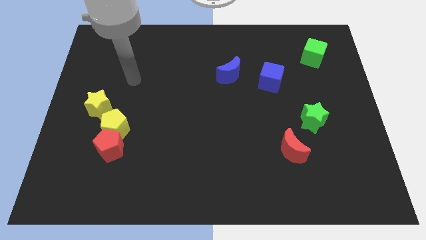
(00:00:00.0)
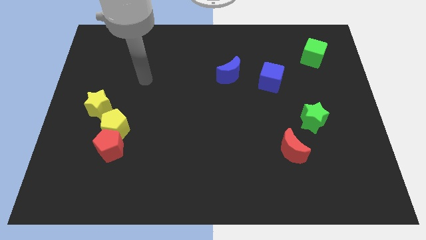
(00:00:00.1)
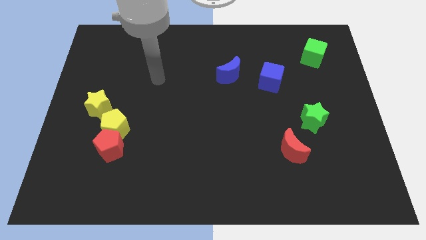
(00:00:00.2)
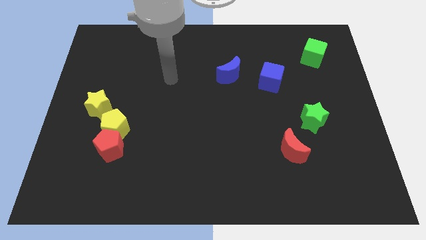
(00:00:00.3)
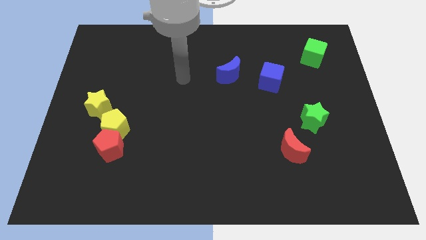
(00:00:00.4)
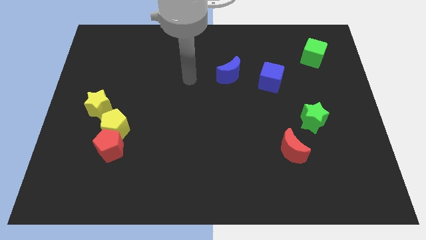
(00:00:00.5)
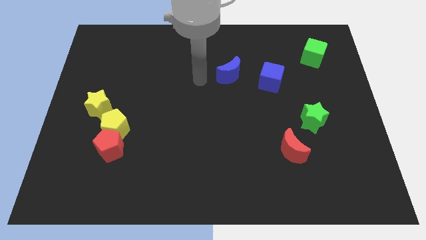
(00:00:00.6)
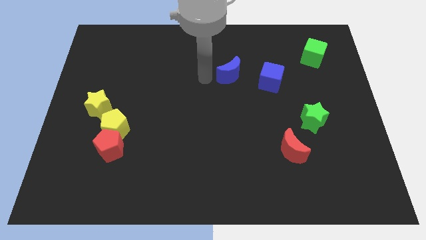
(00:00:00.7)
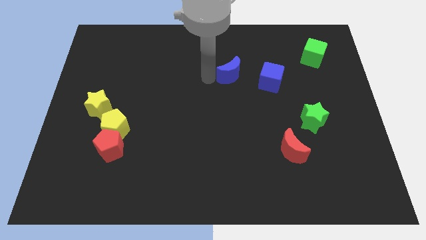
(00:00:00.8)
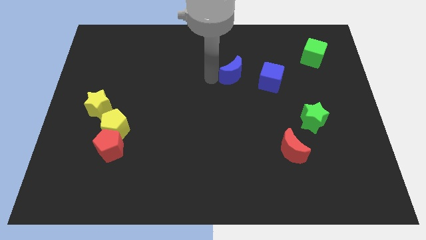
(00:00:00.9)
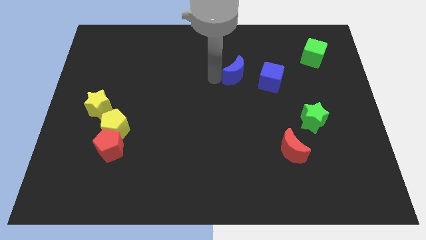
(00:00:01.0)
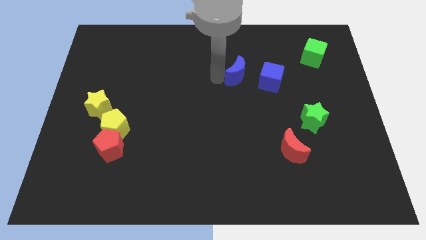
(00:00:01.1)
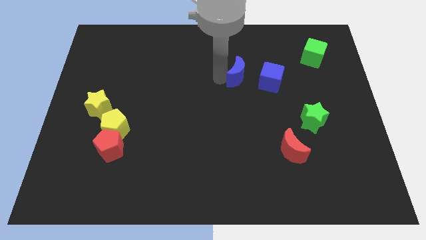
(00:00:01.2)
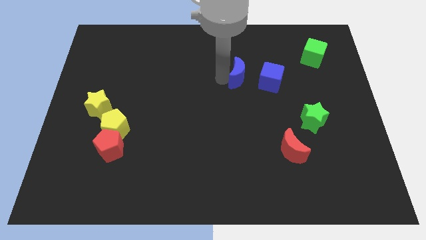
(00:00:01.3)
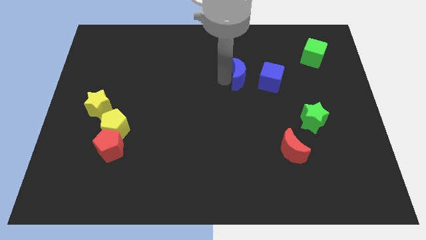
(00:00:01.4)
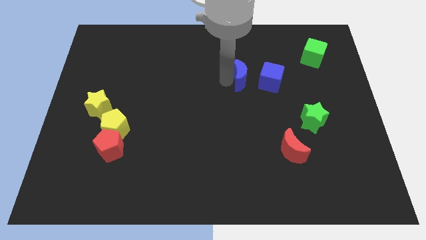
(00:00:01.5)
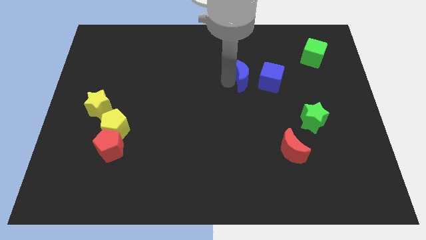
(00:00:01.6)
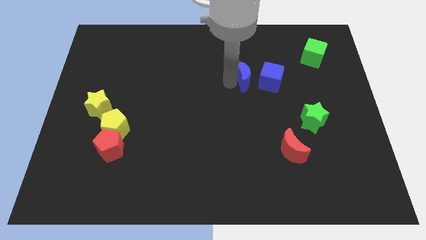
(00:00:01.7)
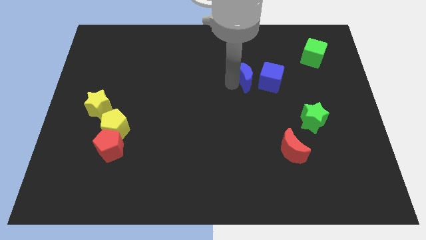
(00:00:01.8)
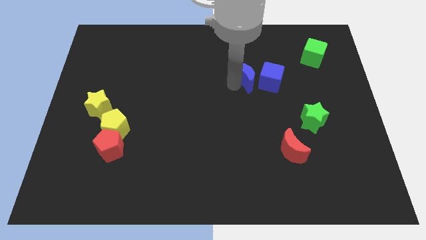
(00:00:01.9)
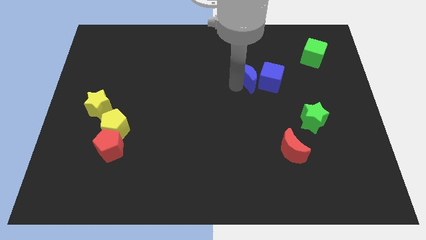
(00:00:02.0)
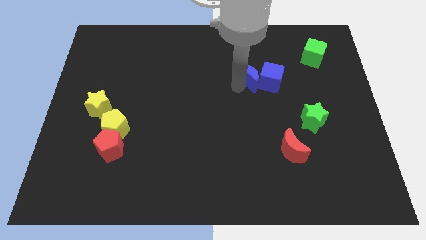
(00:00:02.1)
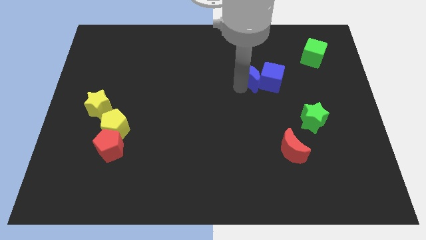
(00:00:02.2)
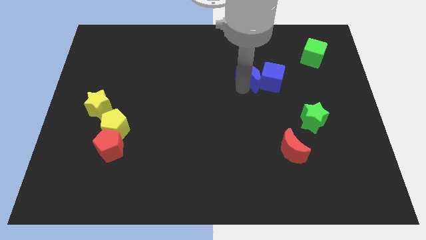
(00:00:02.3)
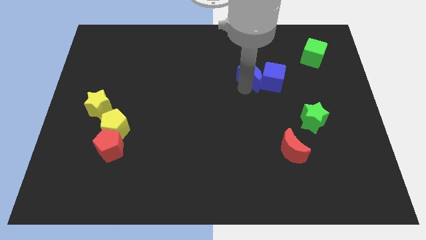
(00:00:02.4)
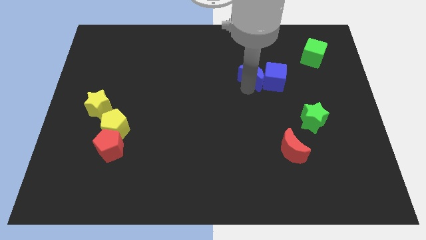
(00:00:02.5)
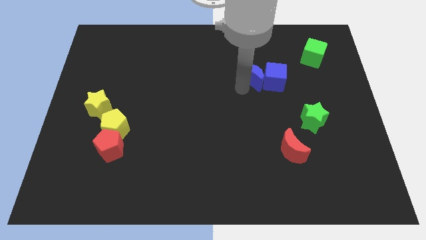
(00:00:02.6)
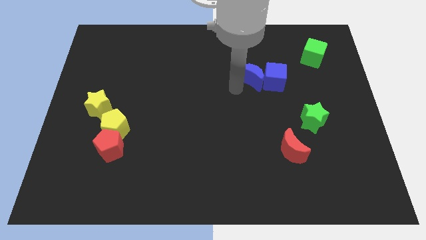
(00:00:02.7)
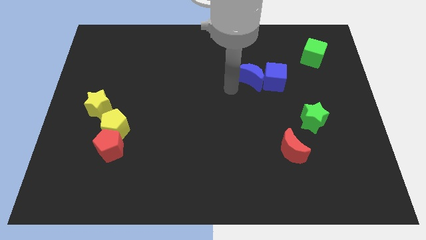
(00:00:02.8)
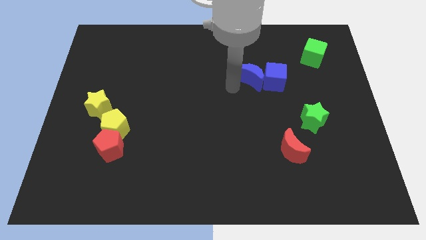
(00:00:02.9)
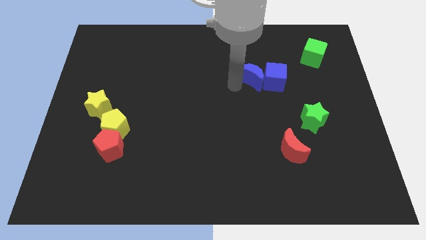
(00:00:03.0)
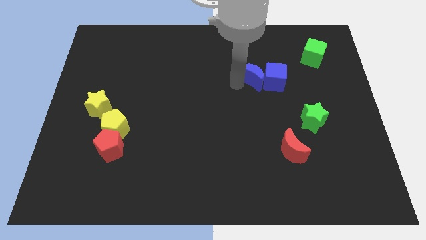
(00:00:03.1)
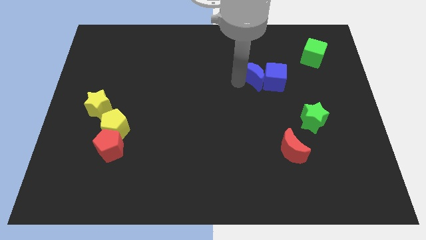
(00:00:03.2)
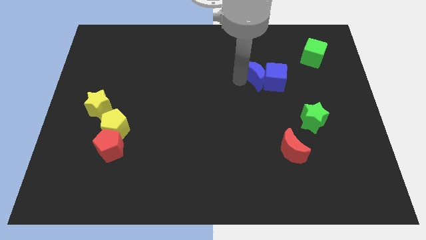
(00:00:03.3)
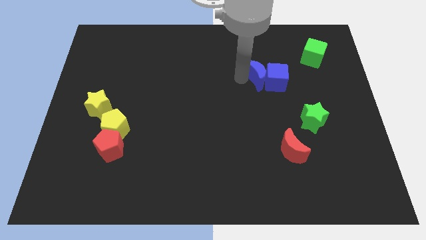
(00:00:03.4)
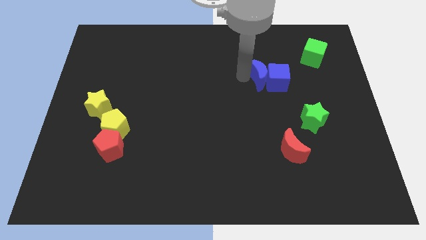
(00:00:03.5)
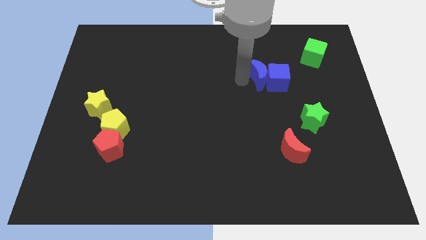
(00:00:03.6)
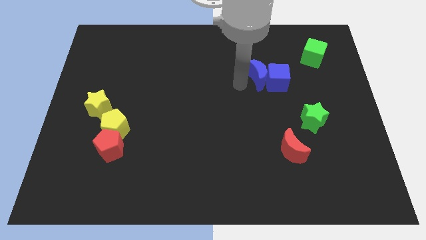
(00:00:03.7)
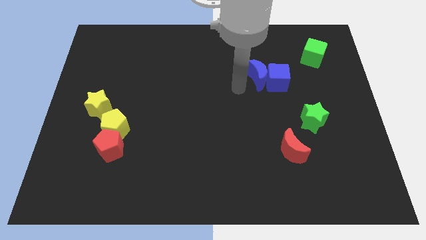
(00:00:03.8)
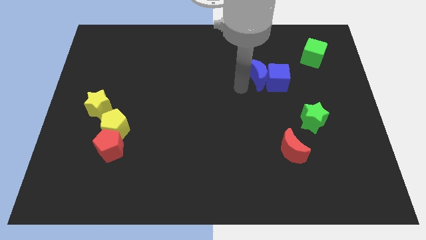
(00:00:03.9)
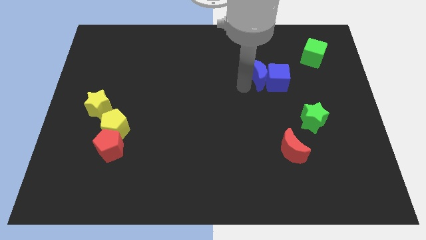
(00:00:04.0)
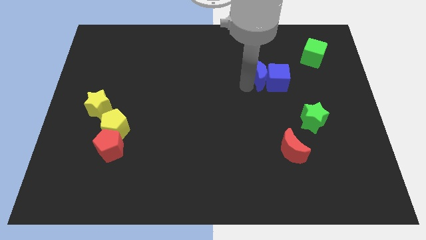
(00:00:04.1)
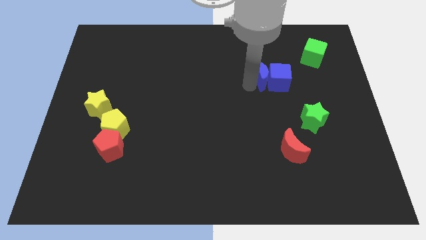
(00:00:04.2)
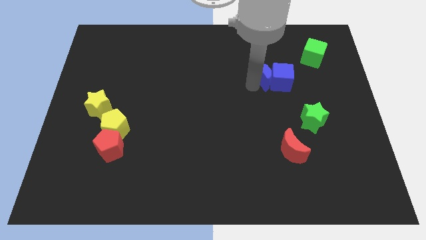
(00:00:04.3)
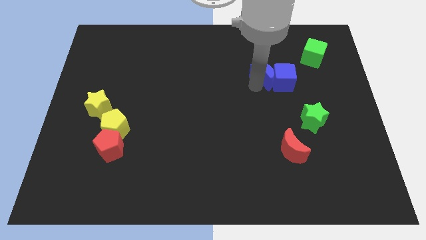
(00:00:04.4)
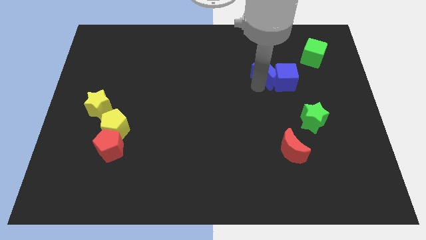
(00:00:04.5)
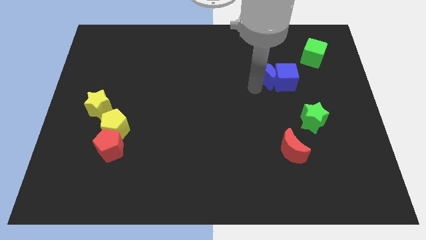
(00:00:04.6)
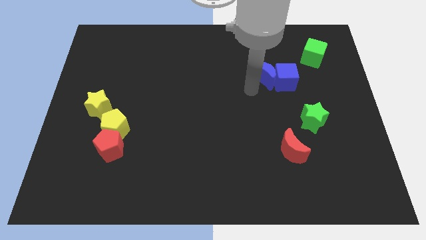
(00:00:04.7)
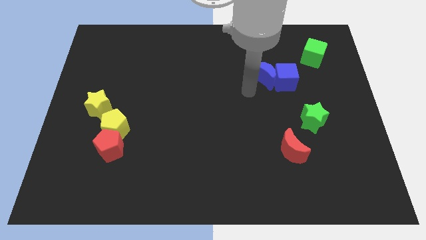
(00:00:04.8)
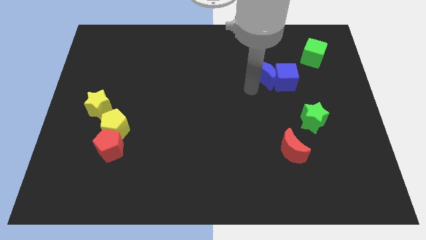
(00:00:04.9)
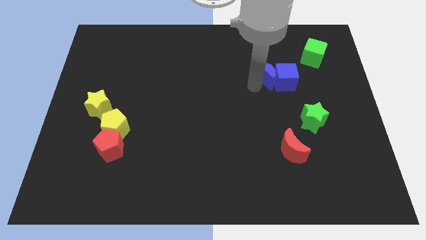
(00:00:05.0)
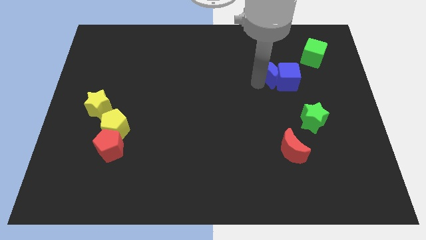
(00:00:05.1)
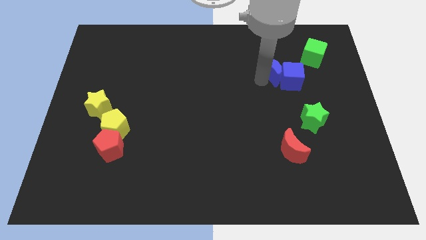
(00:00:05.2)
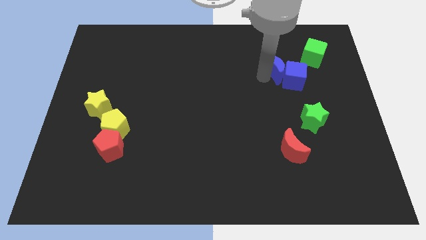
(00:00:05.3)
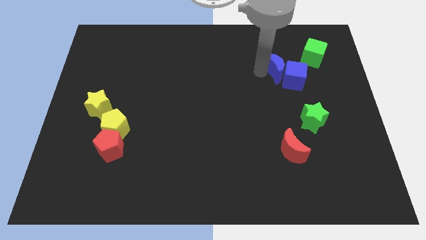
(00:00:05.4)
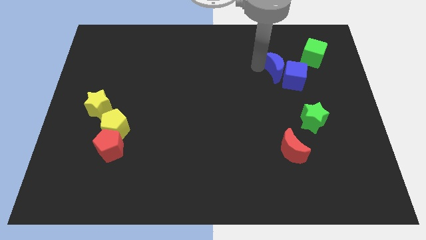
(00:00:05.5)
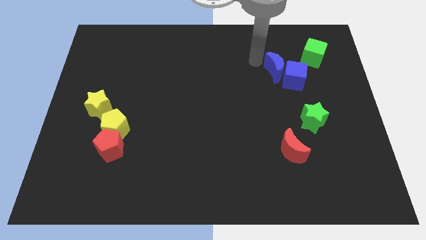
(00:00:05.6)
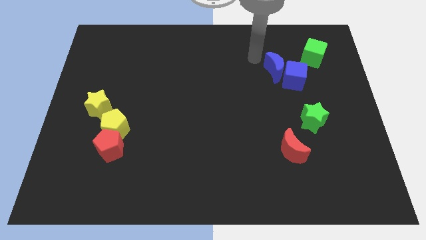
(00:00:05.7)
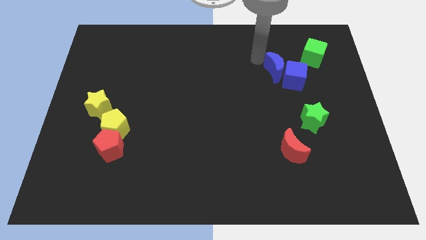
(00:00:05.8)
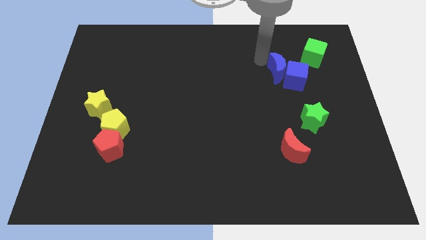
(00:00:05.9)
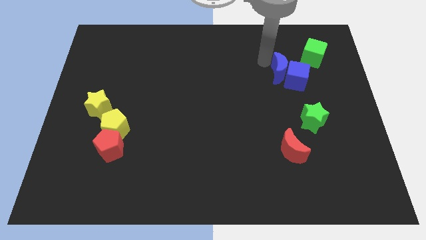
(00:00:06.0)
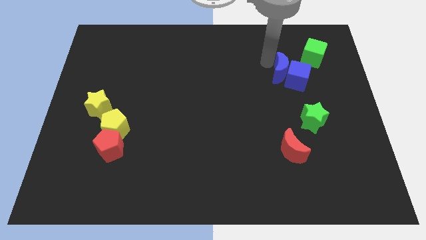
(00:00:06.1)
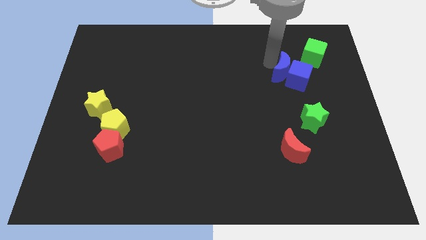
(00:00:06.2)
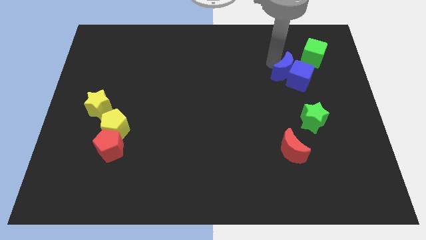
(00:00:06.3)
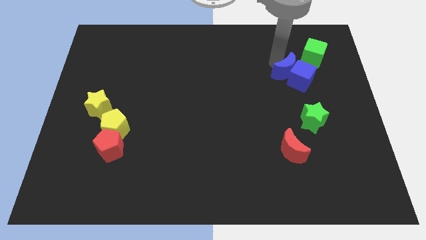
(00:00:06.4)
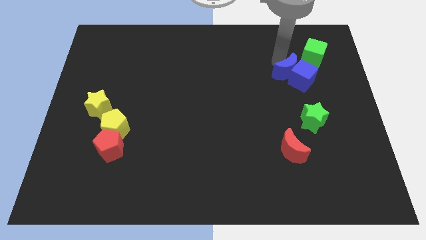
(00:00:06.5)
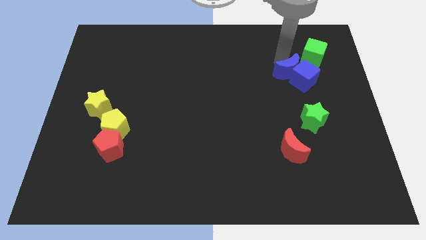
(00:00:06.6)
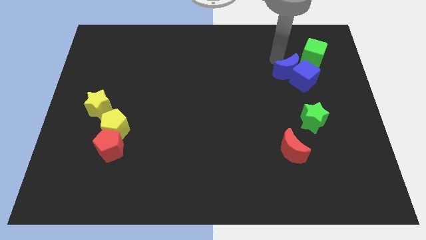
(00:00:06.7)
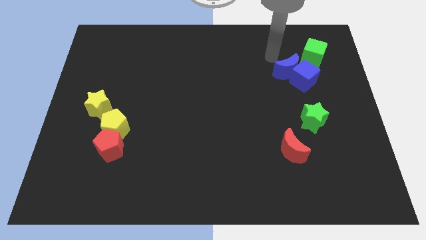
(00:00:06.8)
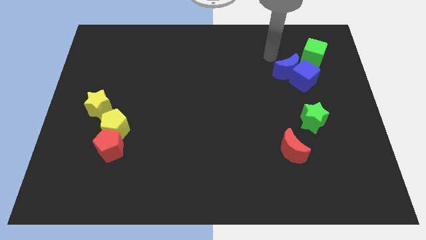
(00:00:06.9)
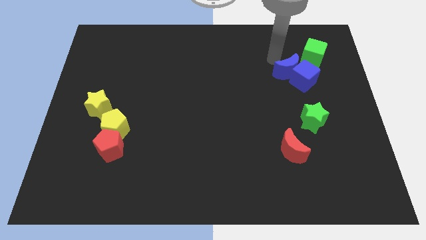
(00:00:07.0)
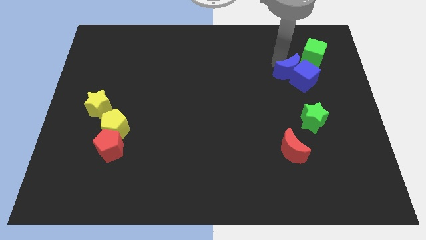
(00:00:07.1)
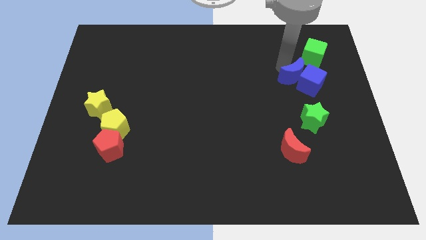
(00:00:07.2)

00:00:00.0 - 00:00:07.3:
put the blue moon to the top of the green star

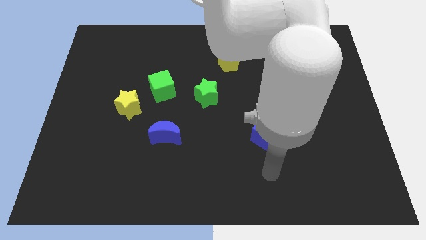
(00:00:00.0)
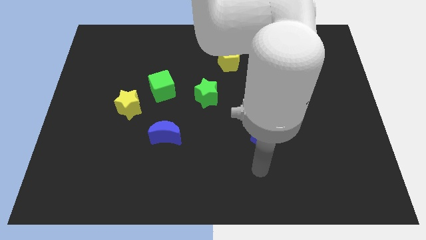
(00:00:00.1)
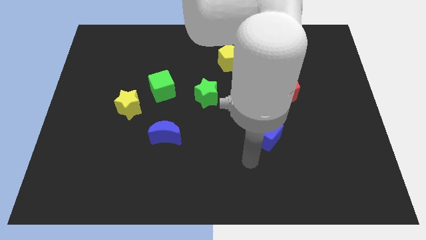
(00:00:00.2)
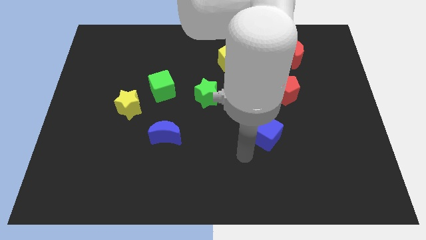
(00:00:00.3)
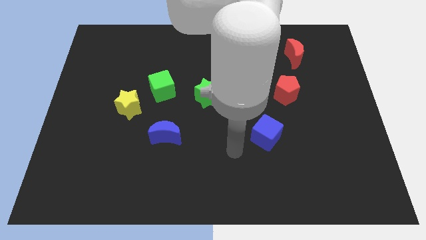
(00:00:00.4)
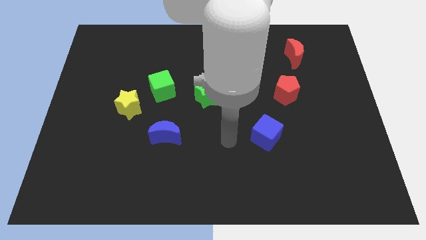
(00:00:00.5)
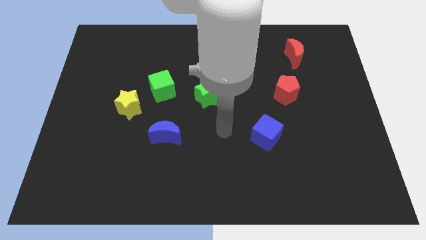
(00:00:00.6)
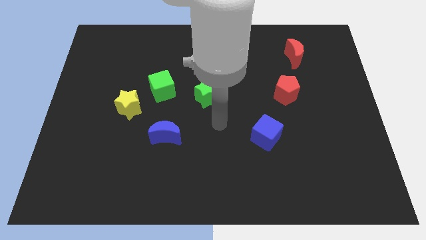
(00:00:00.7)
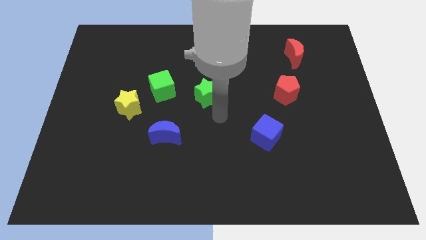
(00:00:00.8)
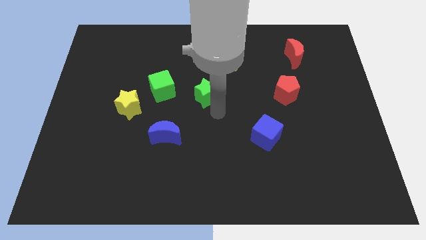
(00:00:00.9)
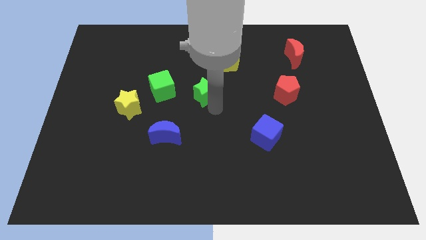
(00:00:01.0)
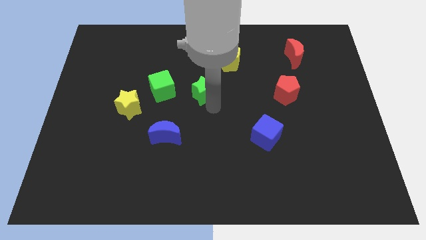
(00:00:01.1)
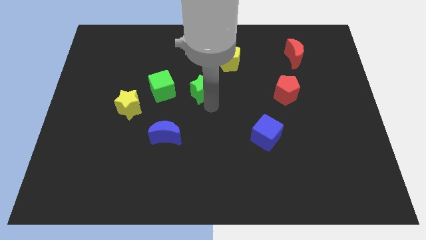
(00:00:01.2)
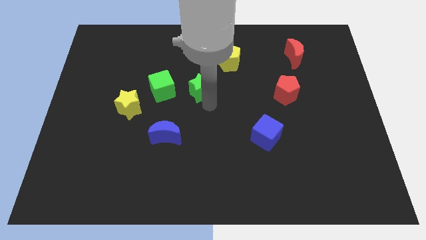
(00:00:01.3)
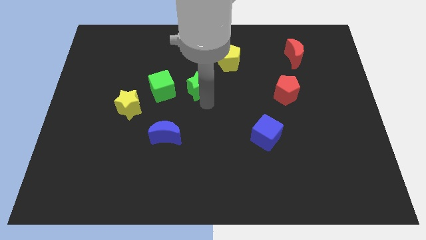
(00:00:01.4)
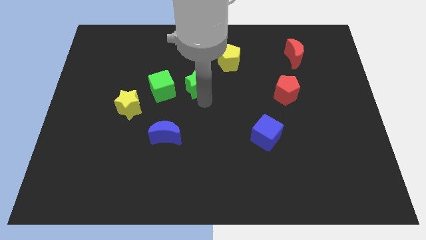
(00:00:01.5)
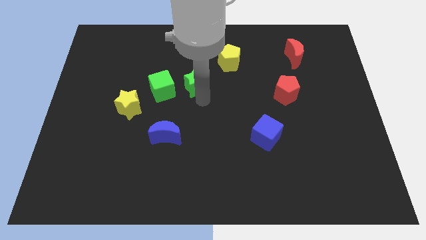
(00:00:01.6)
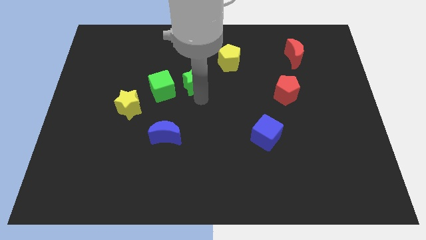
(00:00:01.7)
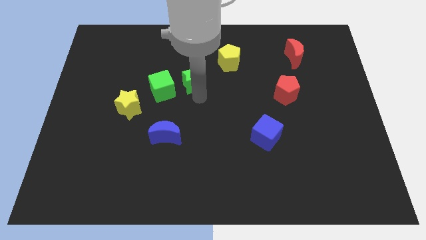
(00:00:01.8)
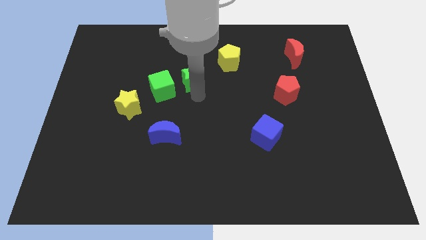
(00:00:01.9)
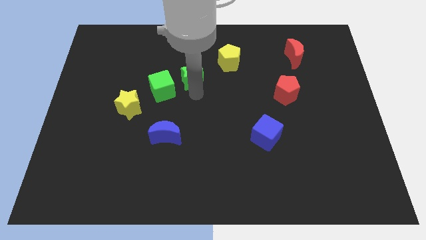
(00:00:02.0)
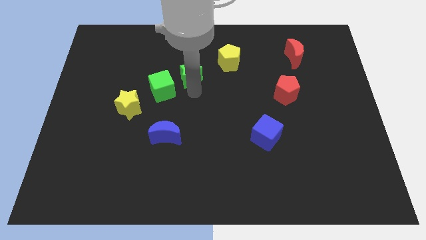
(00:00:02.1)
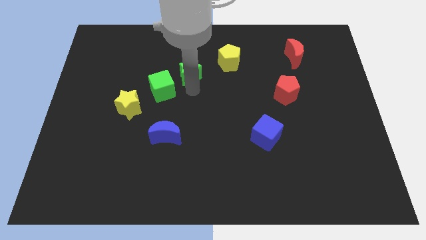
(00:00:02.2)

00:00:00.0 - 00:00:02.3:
slide the green star to the left side of the yellow pentagon
